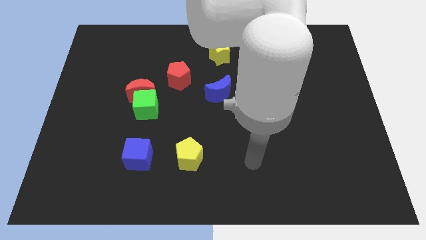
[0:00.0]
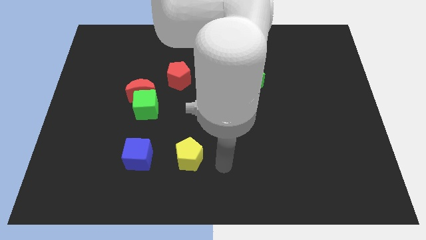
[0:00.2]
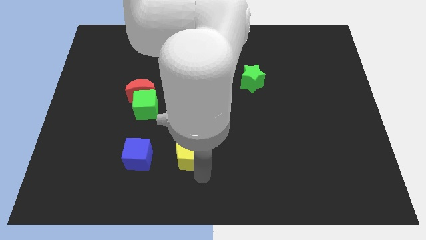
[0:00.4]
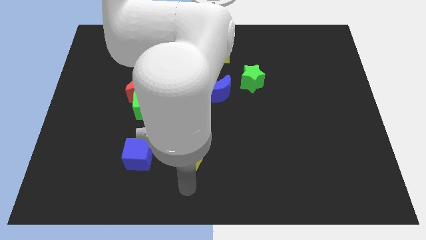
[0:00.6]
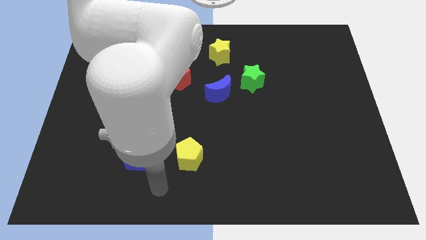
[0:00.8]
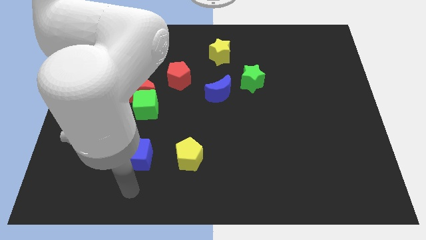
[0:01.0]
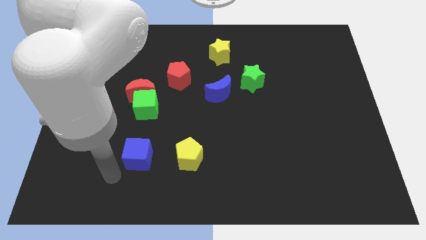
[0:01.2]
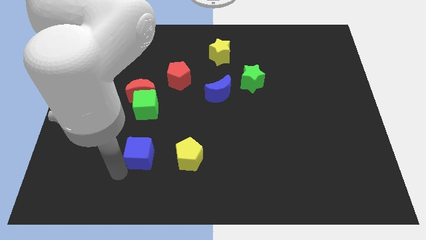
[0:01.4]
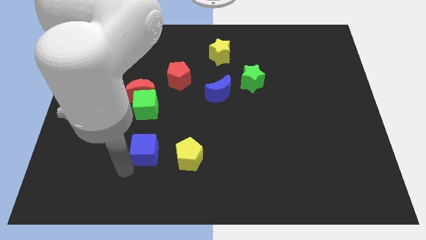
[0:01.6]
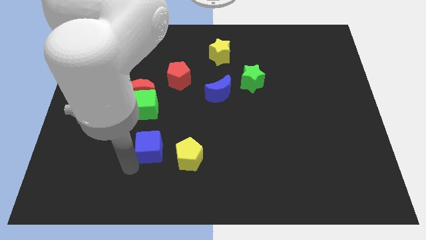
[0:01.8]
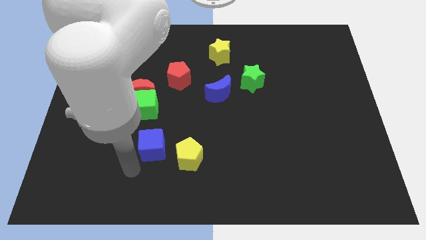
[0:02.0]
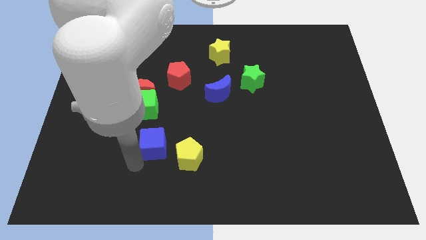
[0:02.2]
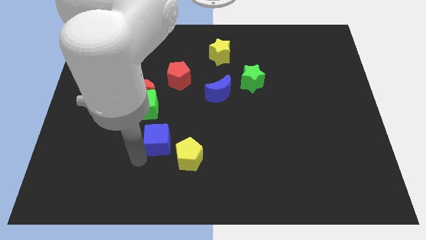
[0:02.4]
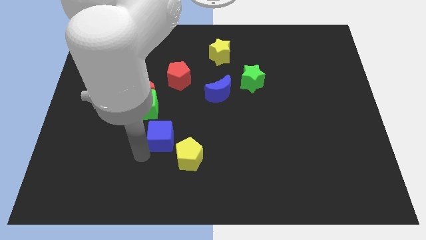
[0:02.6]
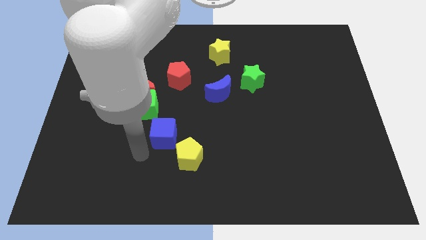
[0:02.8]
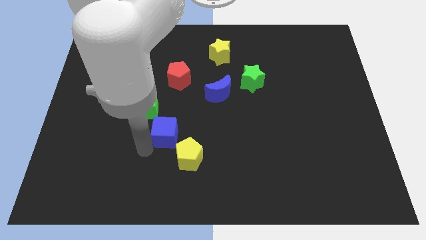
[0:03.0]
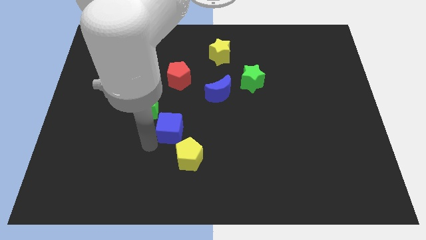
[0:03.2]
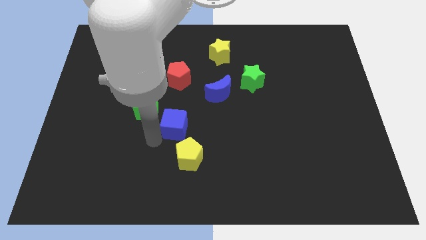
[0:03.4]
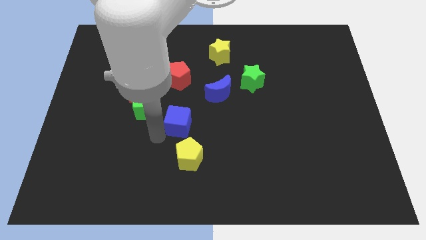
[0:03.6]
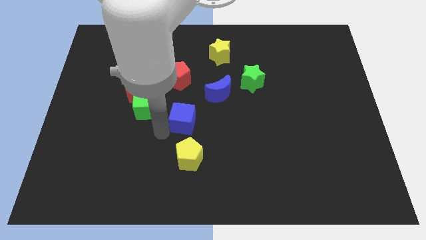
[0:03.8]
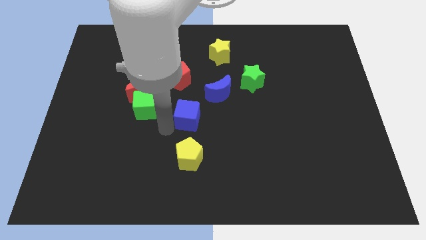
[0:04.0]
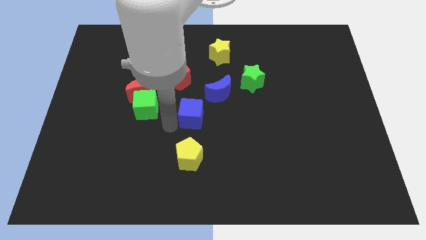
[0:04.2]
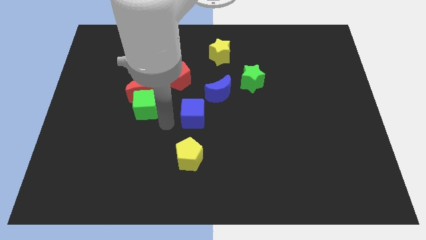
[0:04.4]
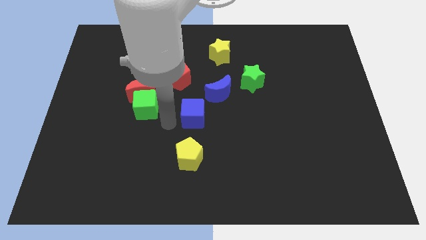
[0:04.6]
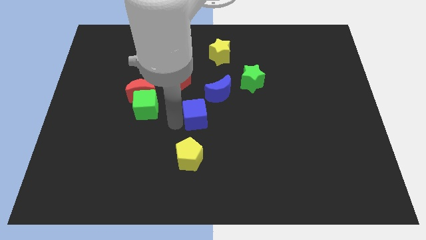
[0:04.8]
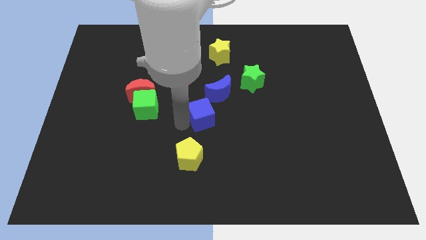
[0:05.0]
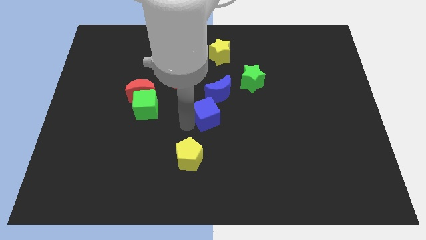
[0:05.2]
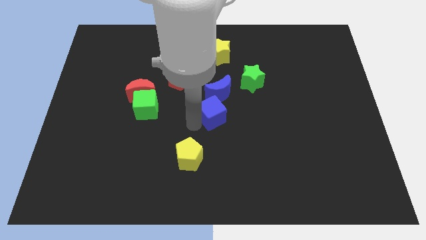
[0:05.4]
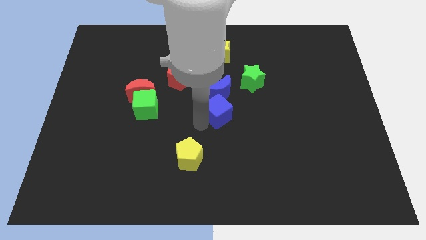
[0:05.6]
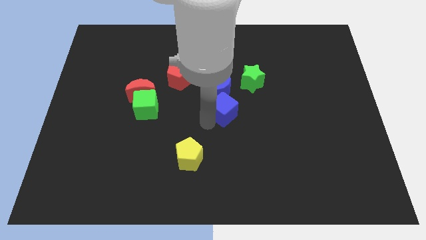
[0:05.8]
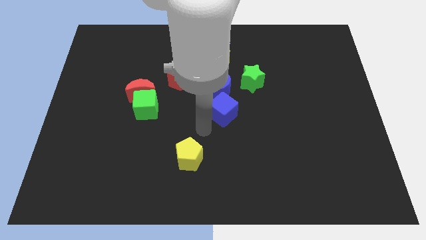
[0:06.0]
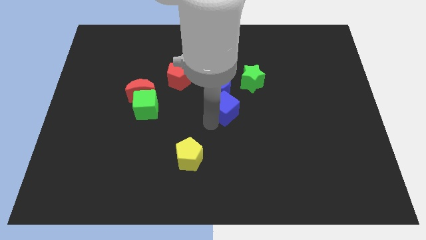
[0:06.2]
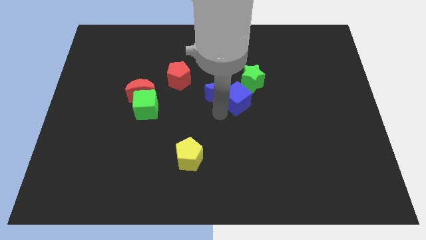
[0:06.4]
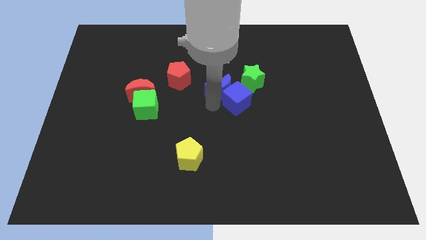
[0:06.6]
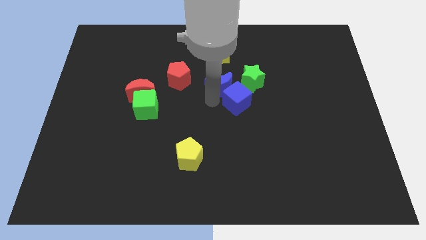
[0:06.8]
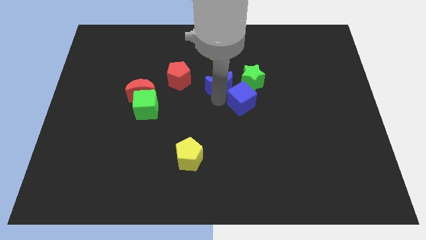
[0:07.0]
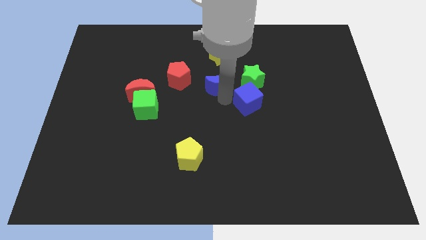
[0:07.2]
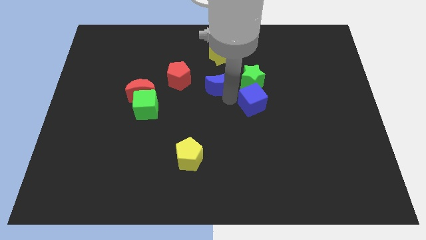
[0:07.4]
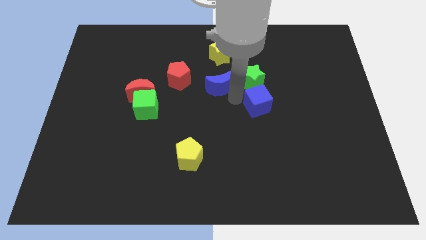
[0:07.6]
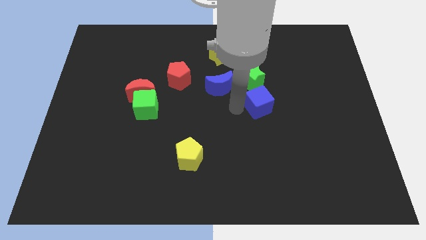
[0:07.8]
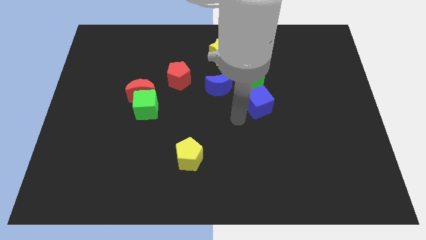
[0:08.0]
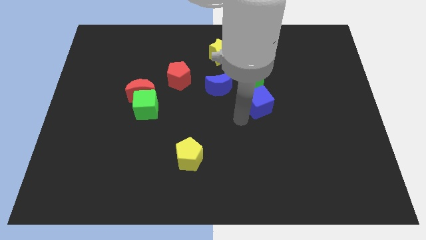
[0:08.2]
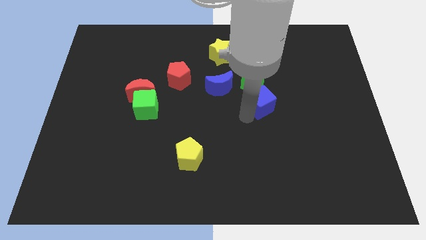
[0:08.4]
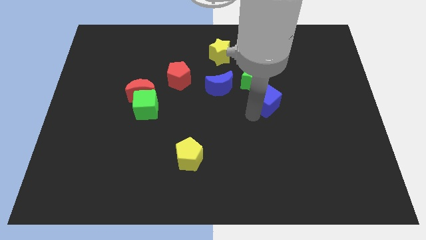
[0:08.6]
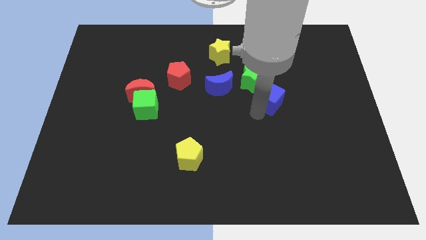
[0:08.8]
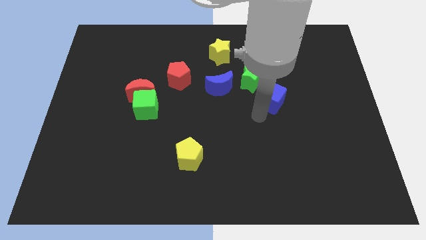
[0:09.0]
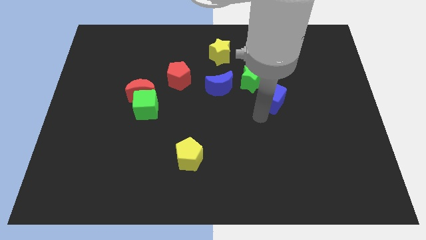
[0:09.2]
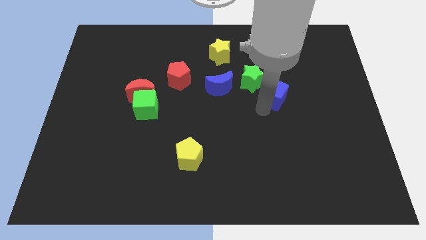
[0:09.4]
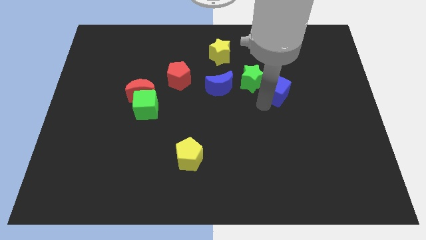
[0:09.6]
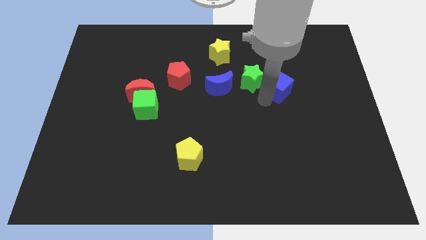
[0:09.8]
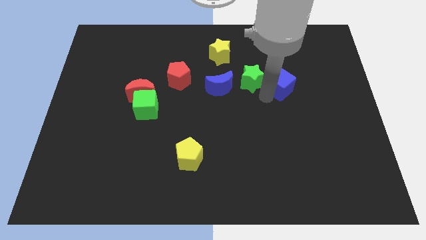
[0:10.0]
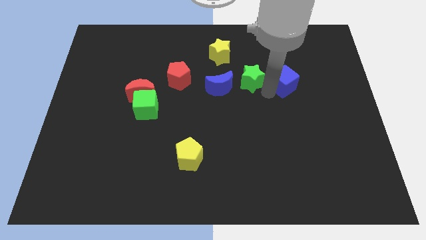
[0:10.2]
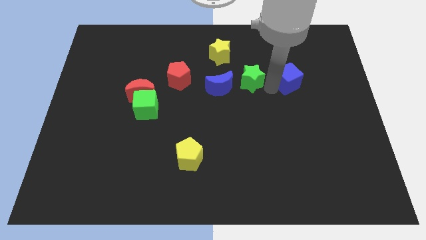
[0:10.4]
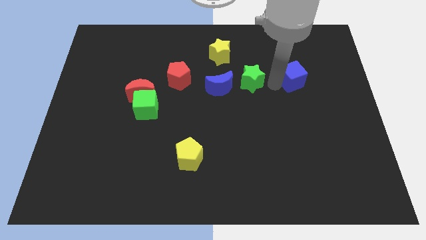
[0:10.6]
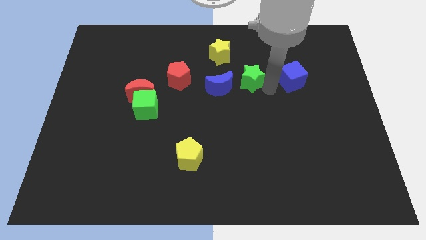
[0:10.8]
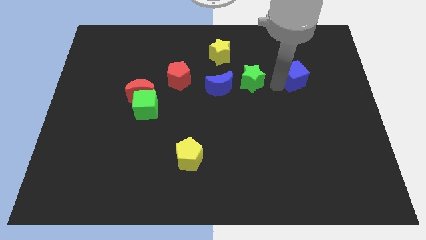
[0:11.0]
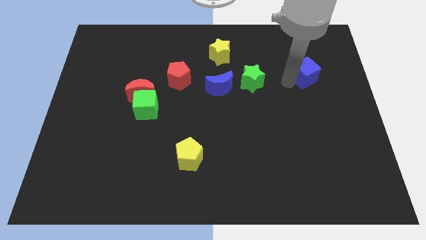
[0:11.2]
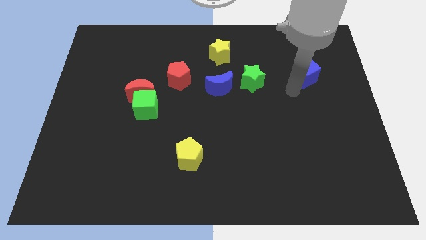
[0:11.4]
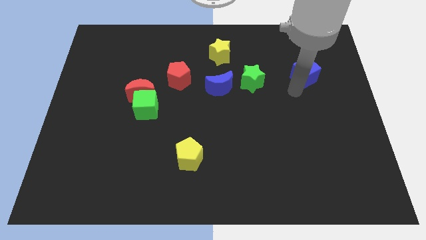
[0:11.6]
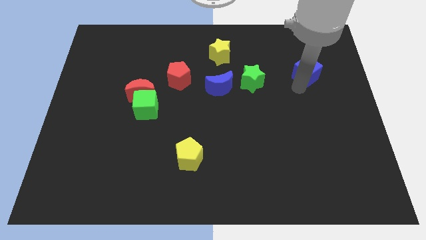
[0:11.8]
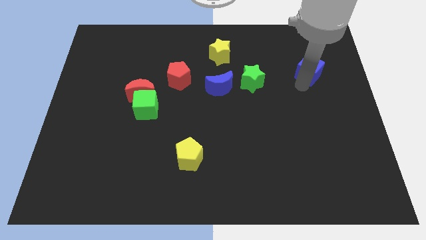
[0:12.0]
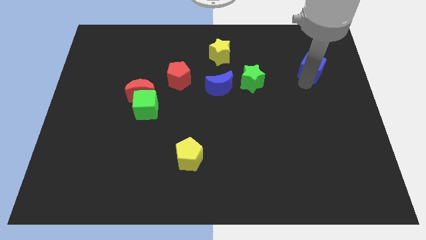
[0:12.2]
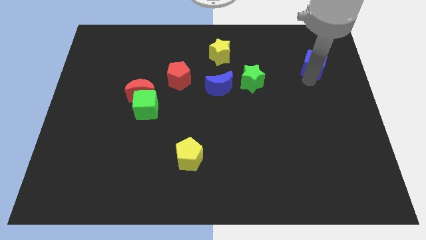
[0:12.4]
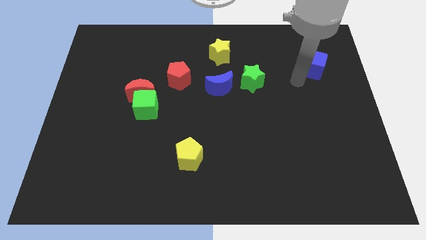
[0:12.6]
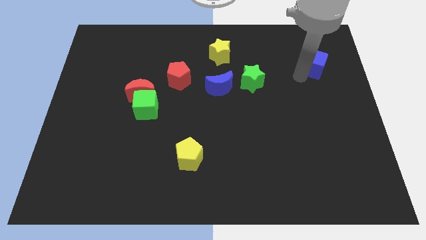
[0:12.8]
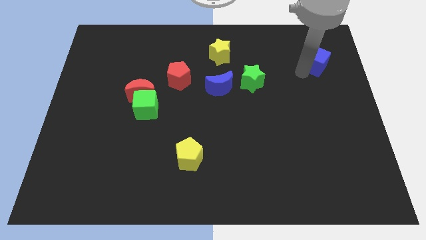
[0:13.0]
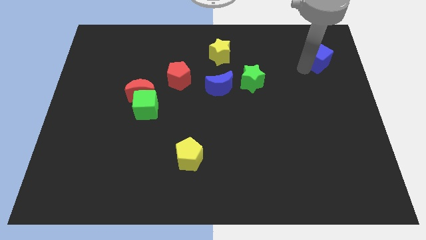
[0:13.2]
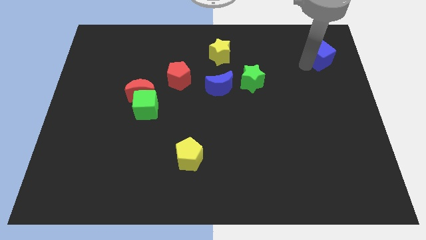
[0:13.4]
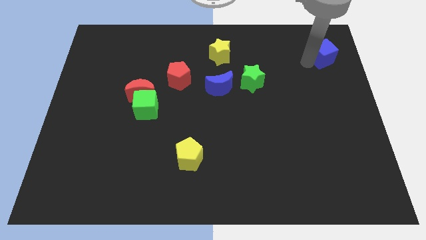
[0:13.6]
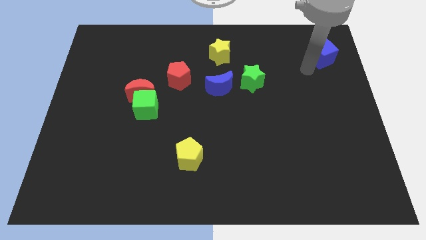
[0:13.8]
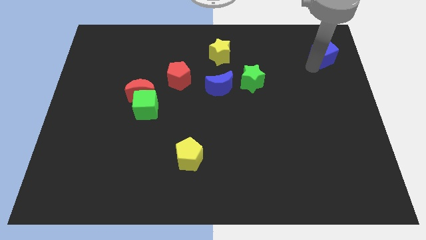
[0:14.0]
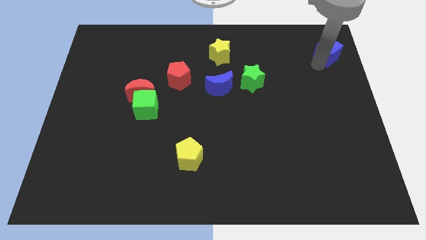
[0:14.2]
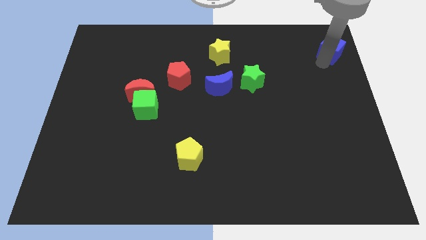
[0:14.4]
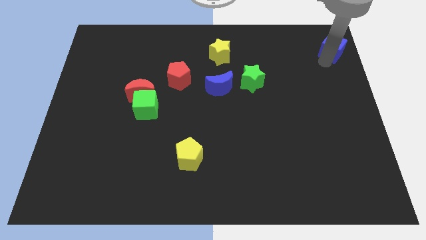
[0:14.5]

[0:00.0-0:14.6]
move the blue cube to the top right corner
